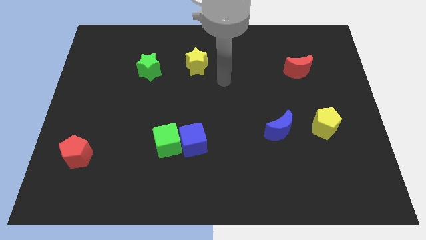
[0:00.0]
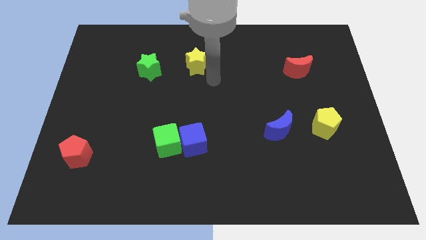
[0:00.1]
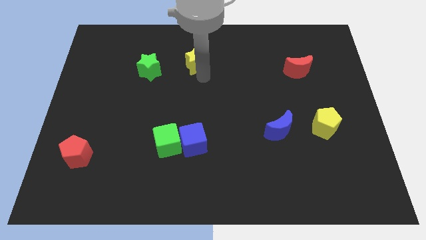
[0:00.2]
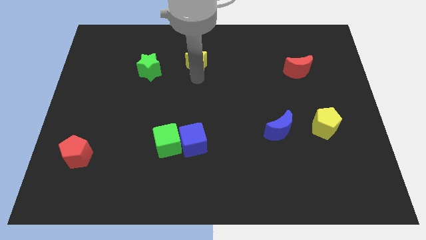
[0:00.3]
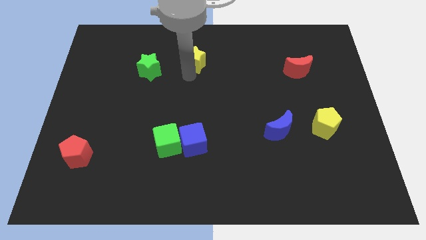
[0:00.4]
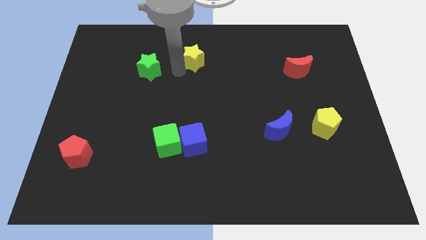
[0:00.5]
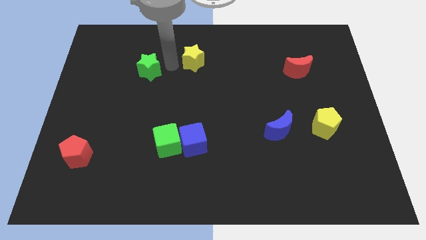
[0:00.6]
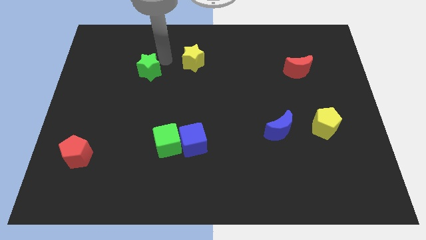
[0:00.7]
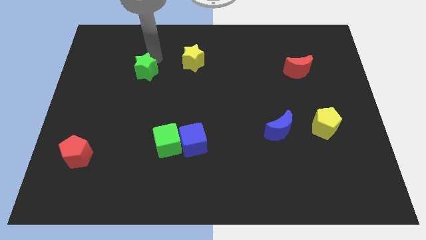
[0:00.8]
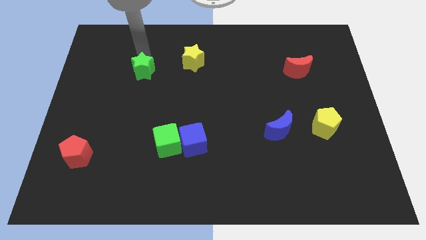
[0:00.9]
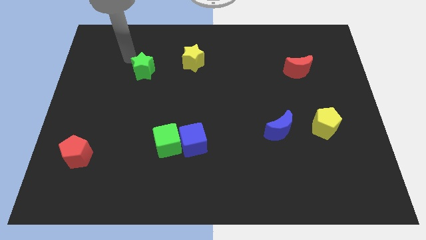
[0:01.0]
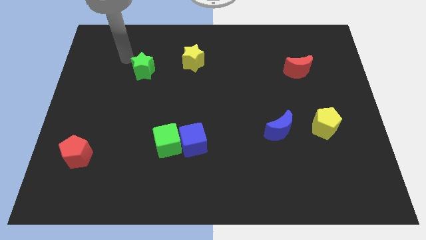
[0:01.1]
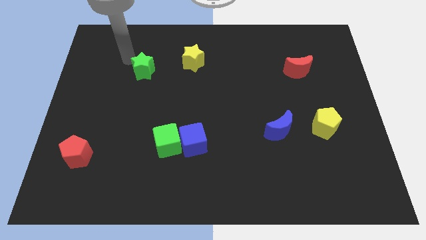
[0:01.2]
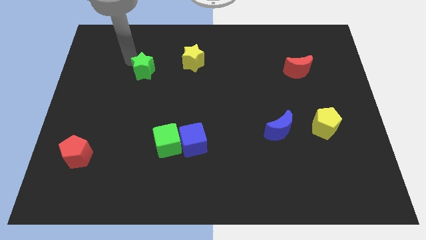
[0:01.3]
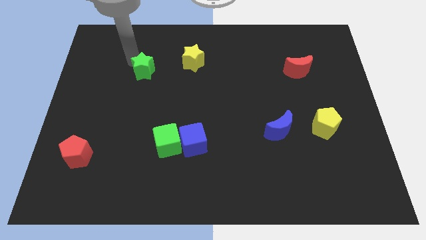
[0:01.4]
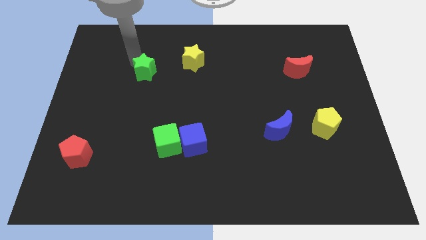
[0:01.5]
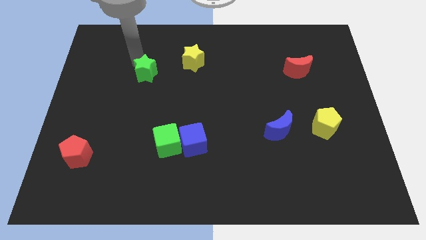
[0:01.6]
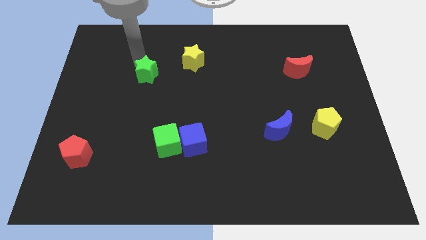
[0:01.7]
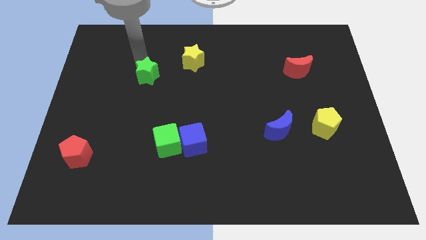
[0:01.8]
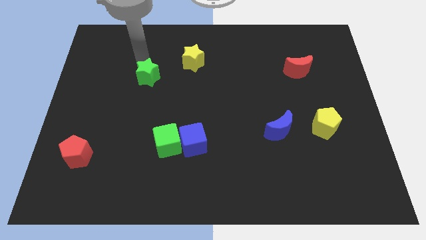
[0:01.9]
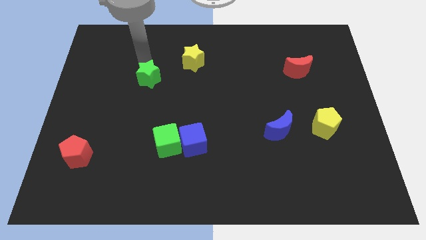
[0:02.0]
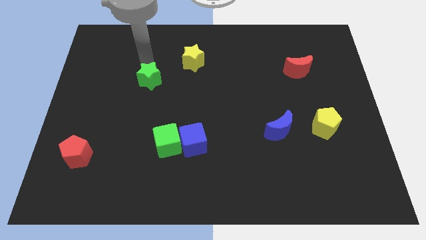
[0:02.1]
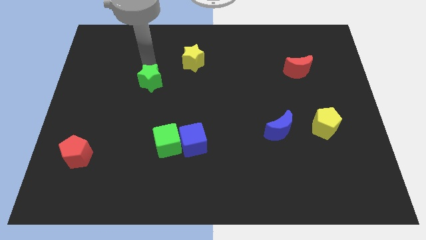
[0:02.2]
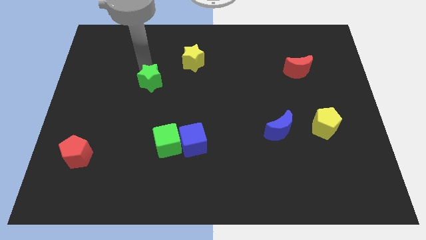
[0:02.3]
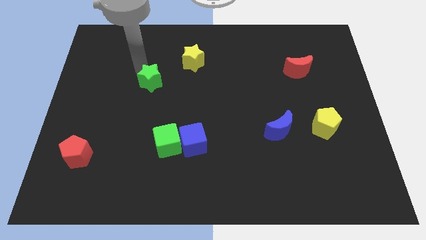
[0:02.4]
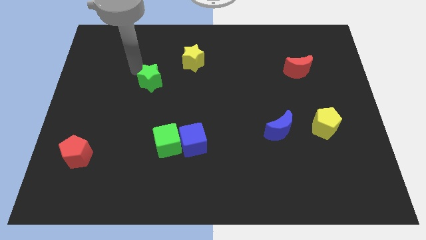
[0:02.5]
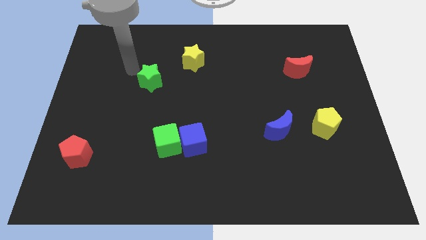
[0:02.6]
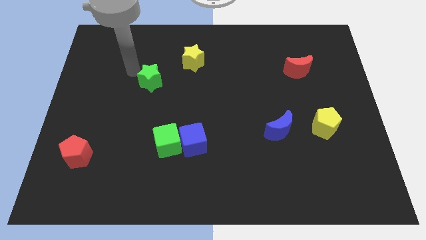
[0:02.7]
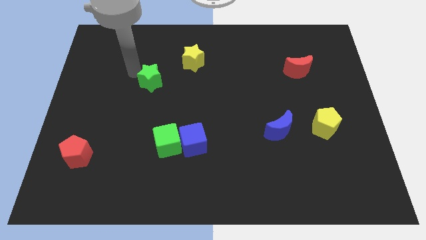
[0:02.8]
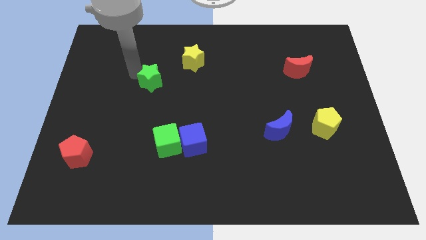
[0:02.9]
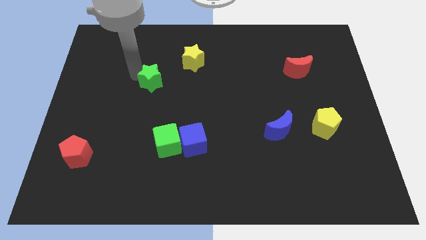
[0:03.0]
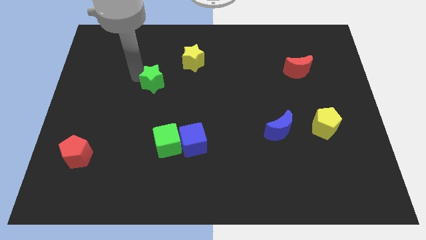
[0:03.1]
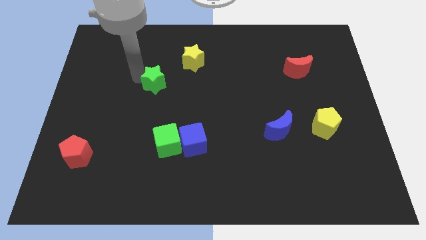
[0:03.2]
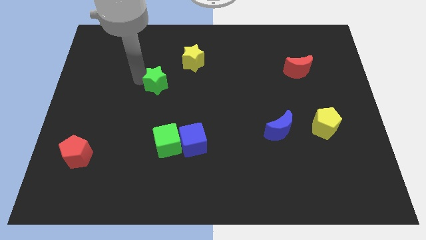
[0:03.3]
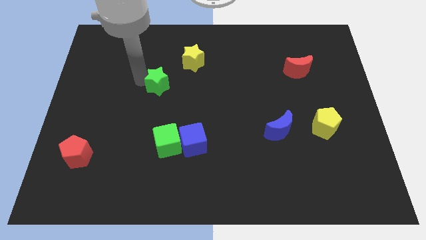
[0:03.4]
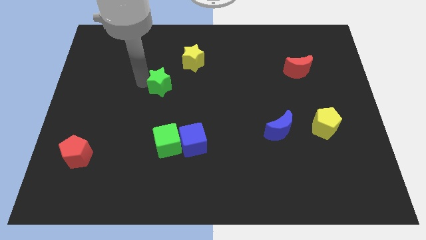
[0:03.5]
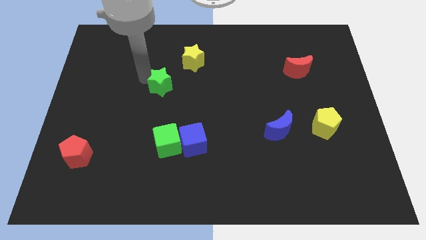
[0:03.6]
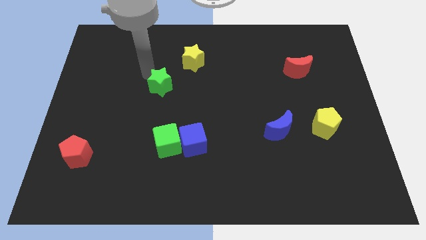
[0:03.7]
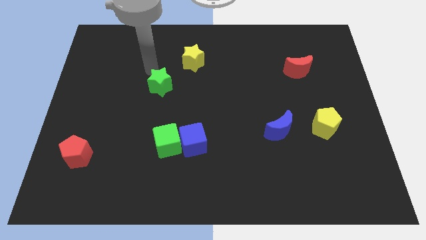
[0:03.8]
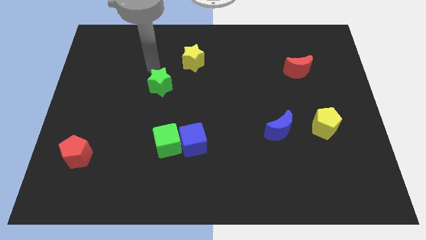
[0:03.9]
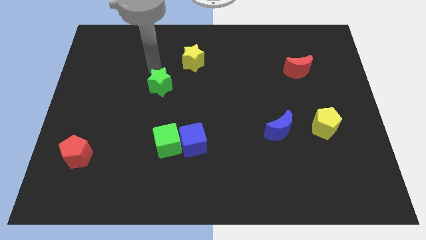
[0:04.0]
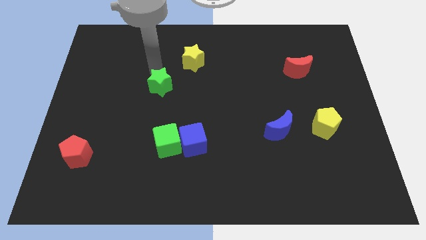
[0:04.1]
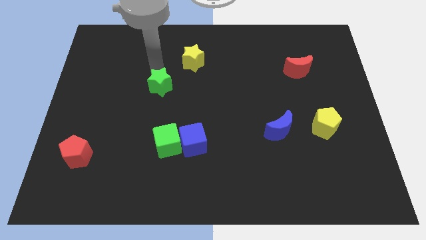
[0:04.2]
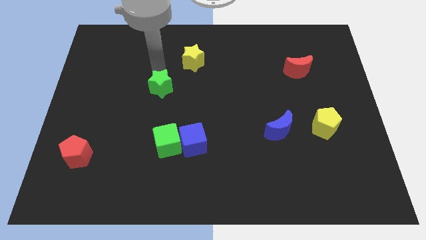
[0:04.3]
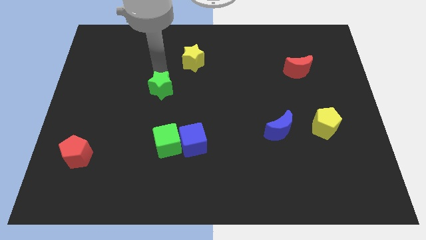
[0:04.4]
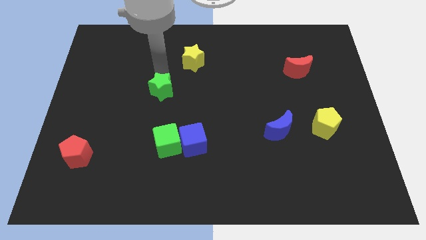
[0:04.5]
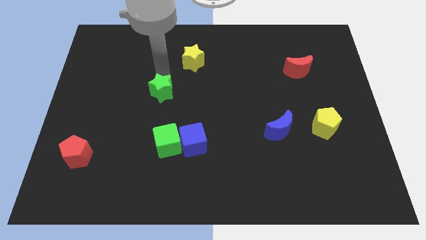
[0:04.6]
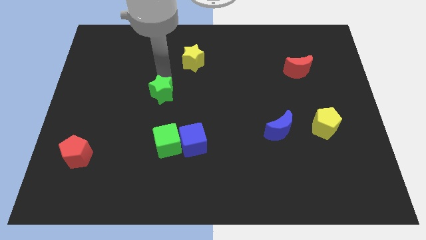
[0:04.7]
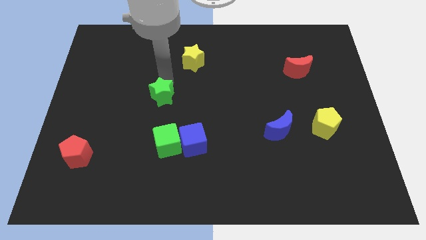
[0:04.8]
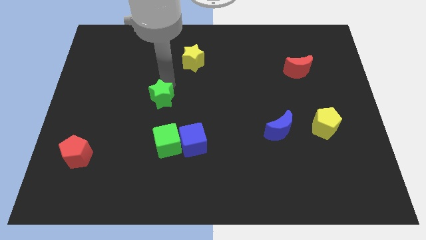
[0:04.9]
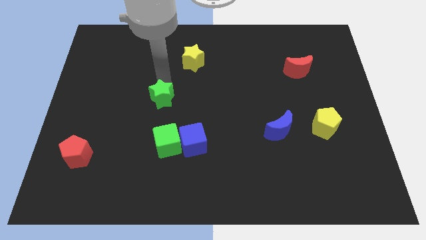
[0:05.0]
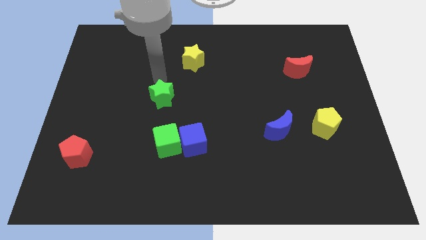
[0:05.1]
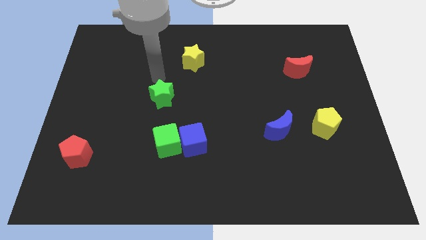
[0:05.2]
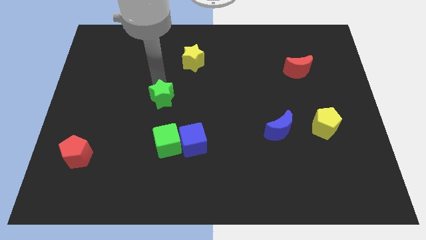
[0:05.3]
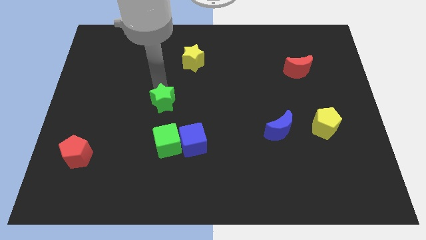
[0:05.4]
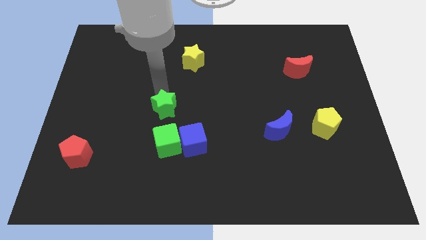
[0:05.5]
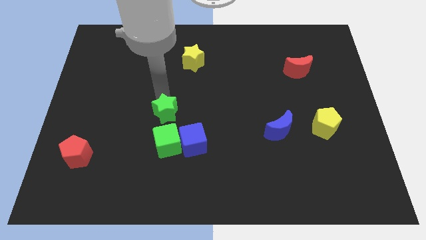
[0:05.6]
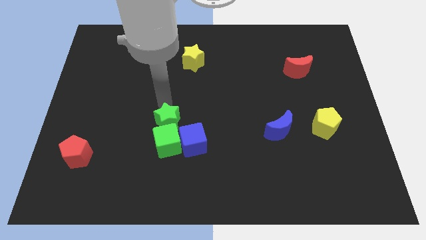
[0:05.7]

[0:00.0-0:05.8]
push the green star towards the green cube

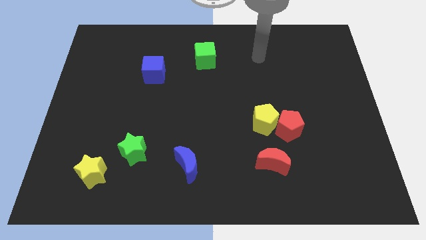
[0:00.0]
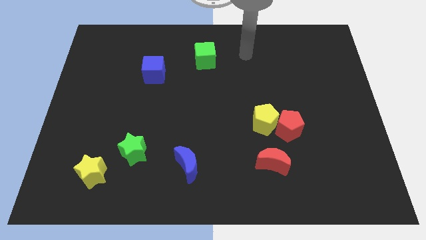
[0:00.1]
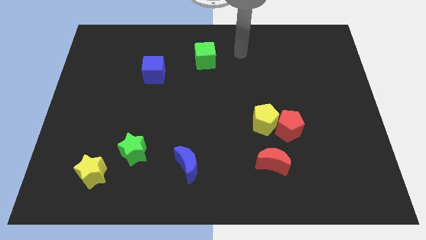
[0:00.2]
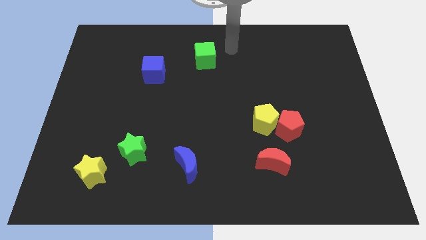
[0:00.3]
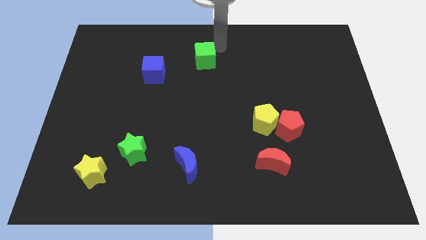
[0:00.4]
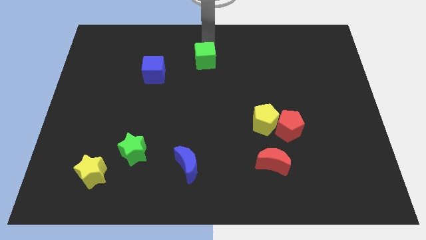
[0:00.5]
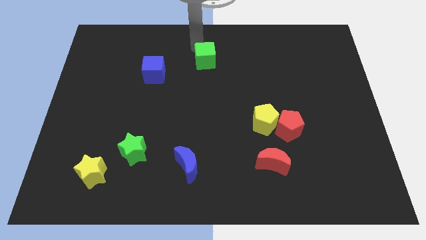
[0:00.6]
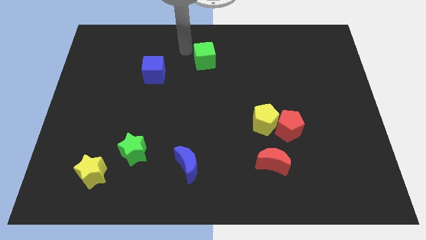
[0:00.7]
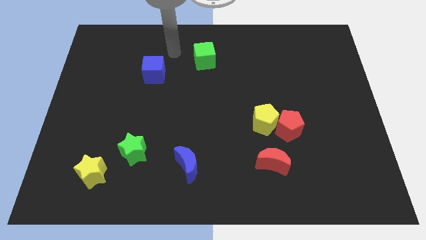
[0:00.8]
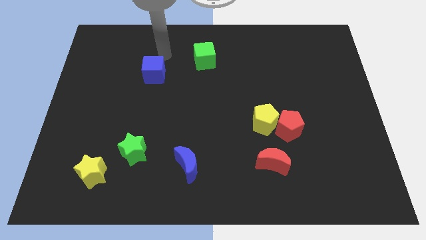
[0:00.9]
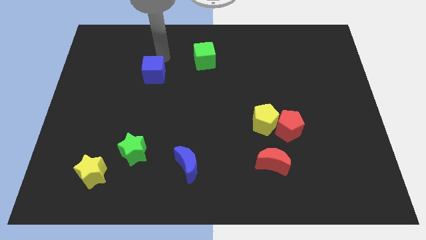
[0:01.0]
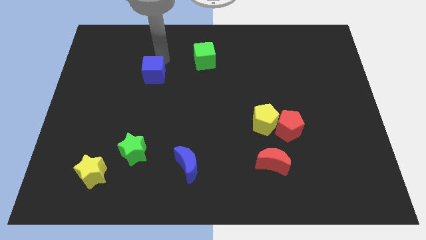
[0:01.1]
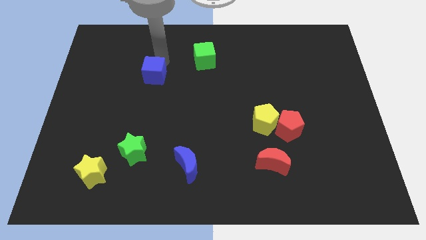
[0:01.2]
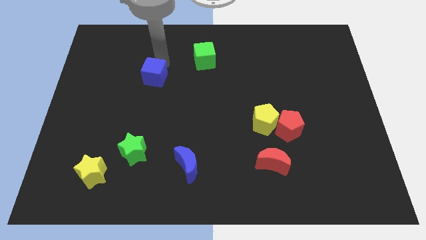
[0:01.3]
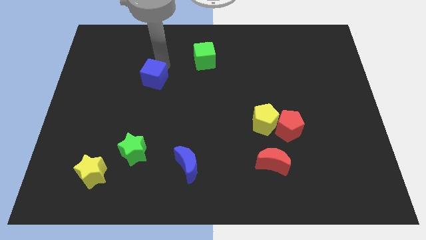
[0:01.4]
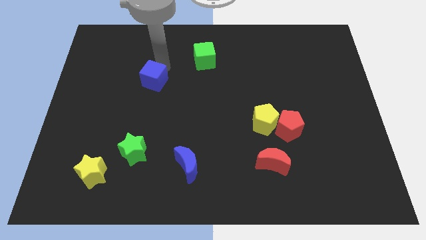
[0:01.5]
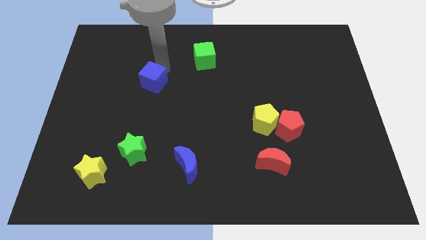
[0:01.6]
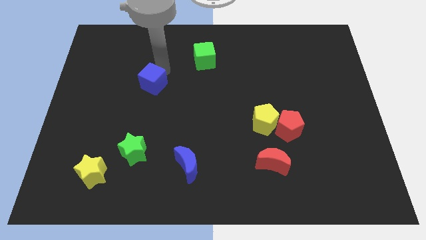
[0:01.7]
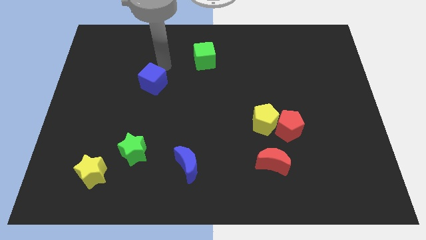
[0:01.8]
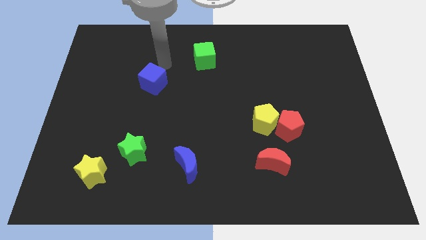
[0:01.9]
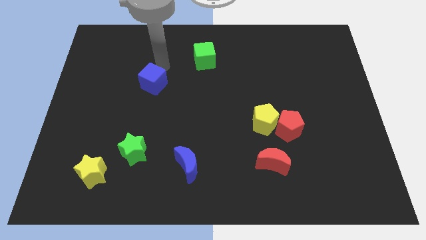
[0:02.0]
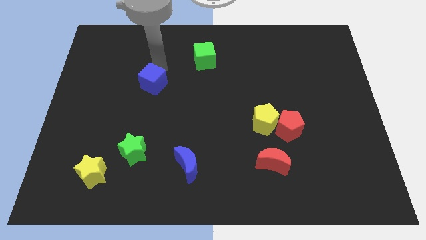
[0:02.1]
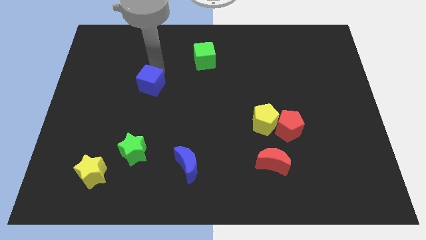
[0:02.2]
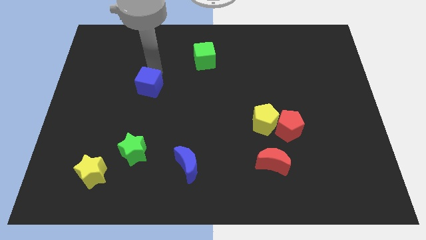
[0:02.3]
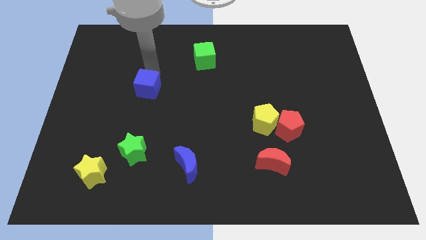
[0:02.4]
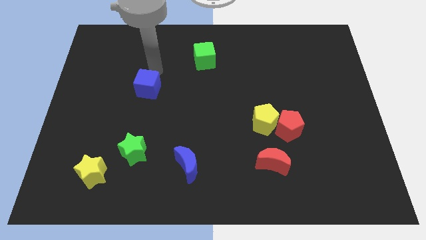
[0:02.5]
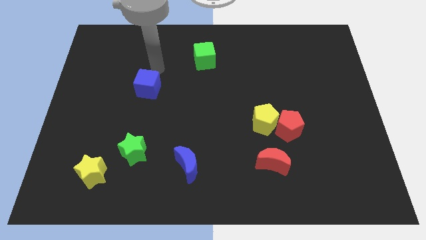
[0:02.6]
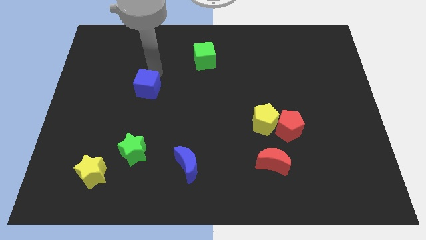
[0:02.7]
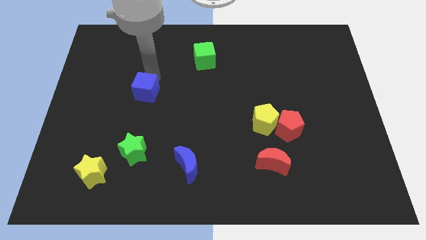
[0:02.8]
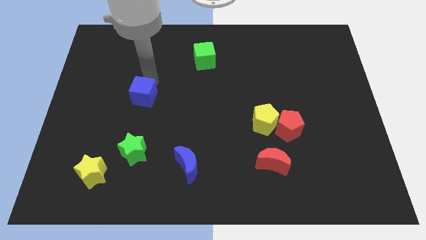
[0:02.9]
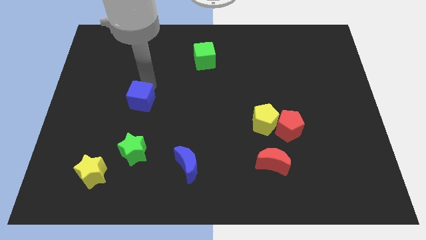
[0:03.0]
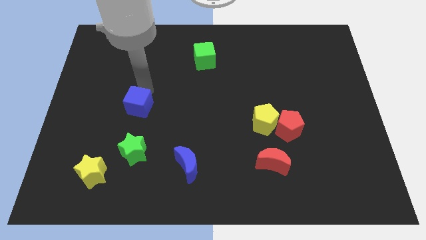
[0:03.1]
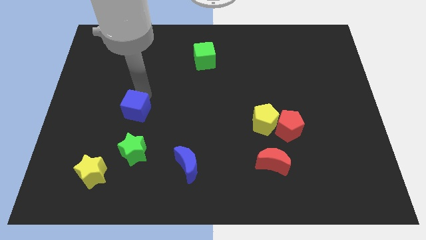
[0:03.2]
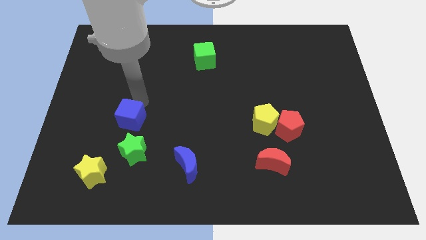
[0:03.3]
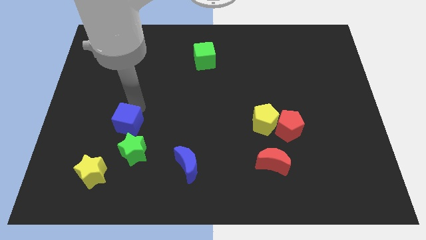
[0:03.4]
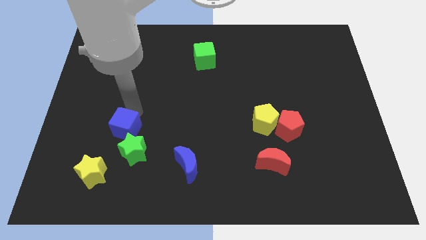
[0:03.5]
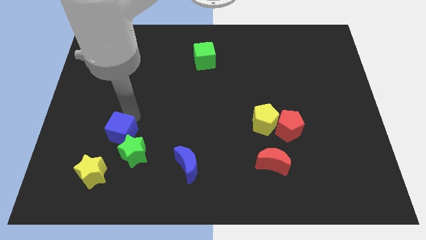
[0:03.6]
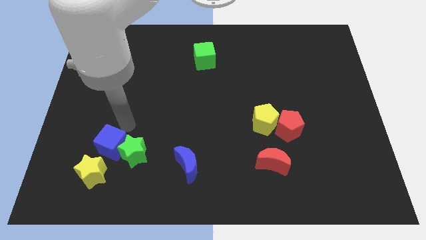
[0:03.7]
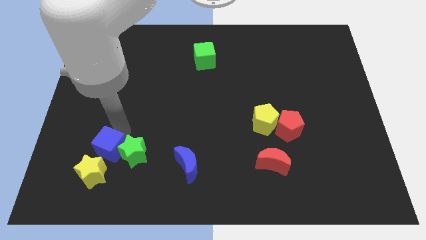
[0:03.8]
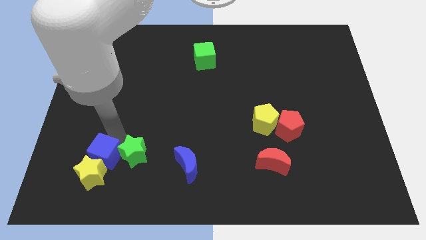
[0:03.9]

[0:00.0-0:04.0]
push the blue cube close to the yellow star
